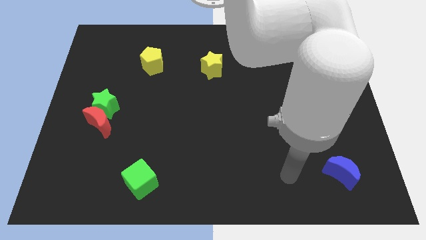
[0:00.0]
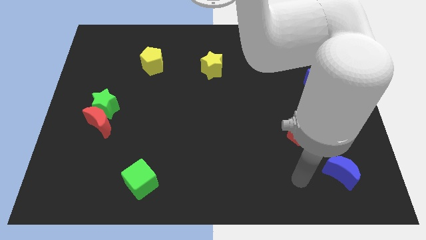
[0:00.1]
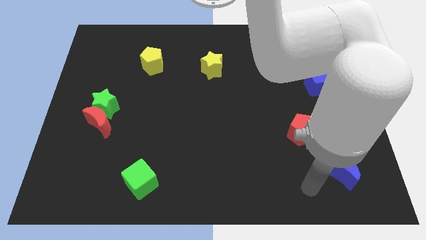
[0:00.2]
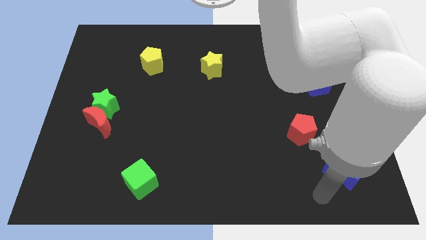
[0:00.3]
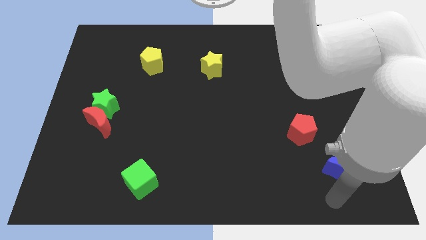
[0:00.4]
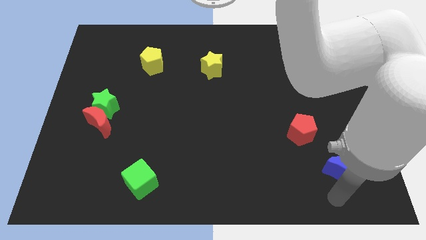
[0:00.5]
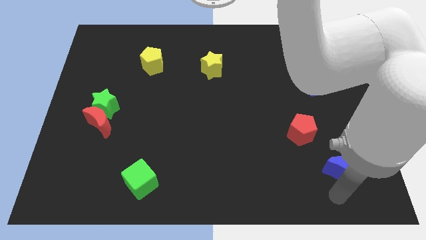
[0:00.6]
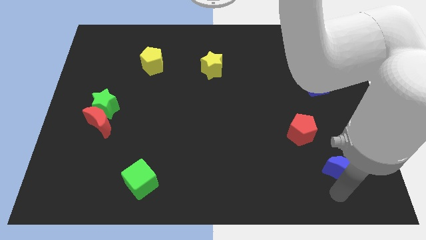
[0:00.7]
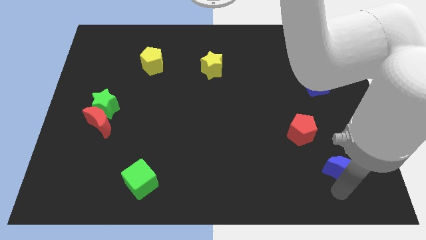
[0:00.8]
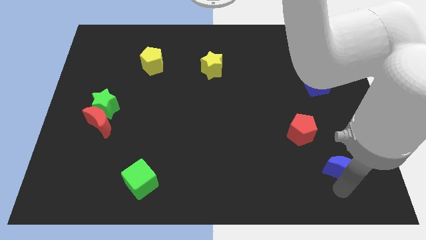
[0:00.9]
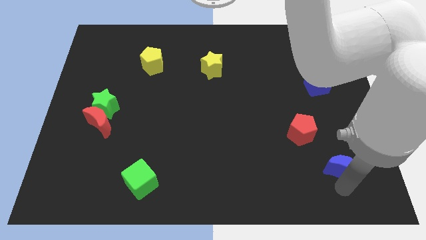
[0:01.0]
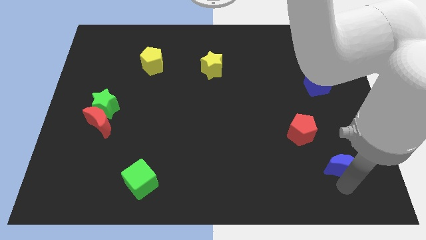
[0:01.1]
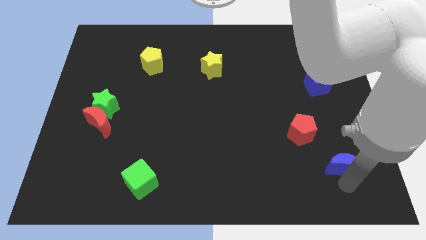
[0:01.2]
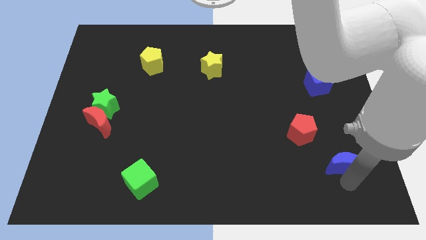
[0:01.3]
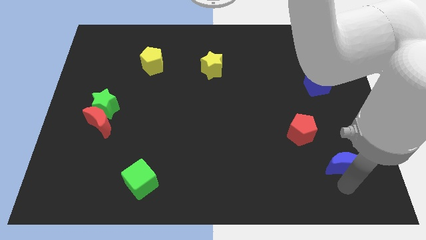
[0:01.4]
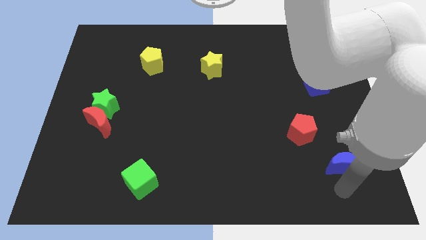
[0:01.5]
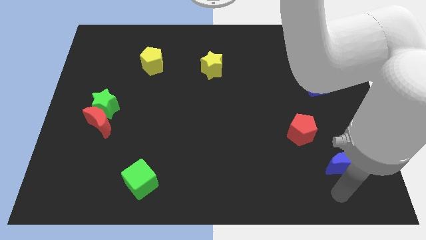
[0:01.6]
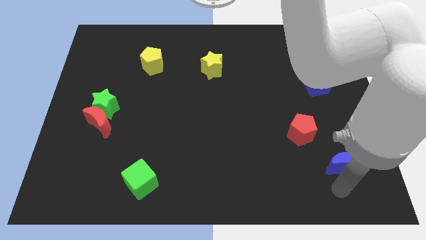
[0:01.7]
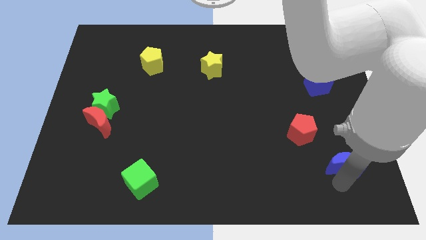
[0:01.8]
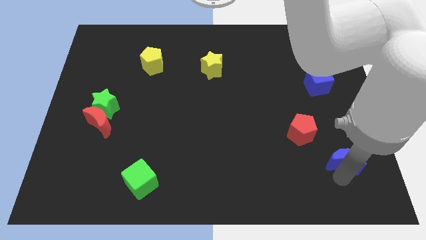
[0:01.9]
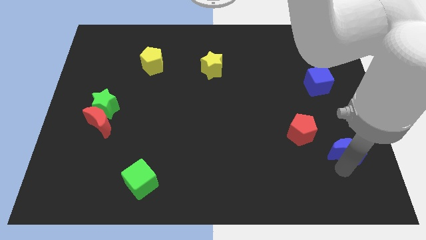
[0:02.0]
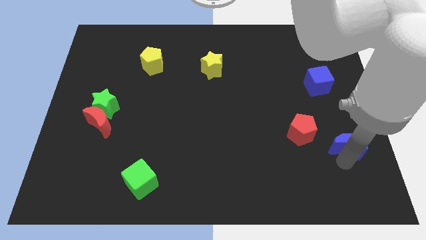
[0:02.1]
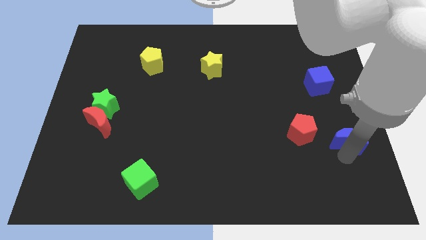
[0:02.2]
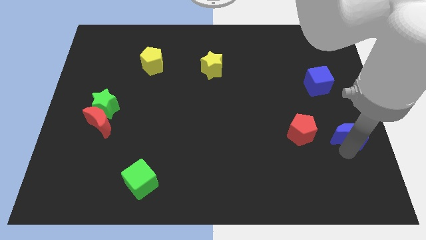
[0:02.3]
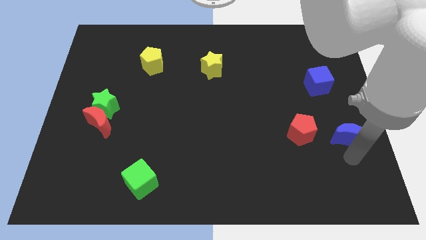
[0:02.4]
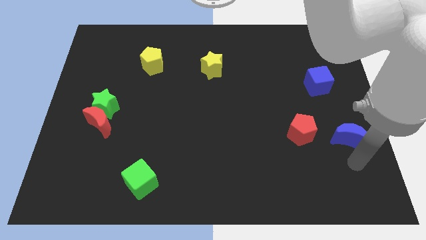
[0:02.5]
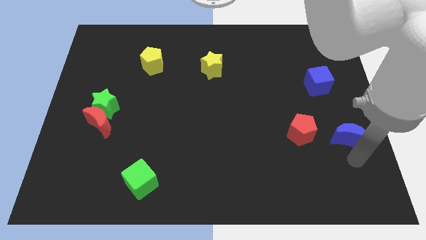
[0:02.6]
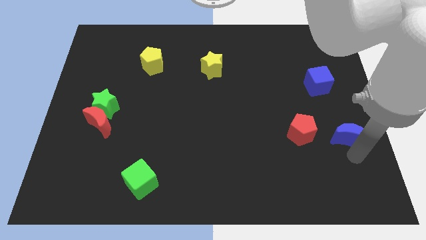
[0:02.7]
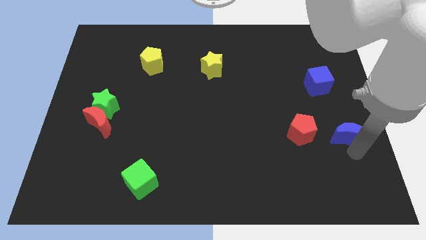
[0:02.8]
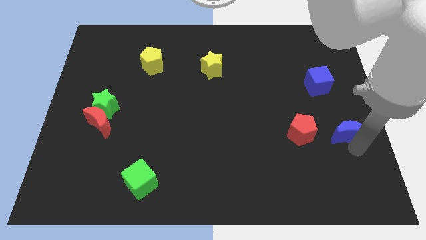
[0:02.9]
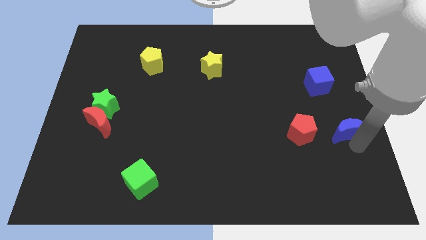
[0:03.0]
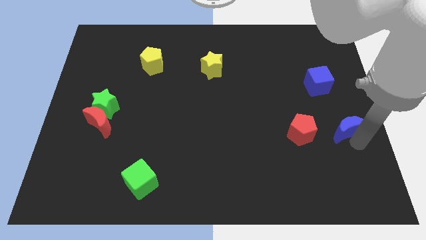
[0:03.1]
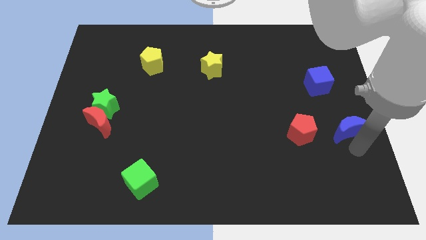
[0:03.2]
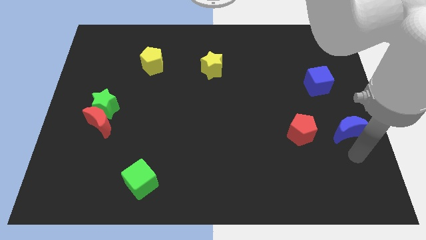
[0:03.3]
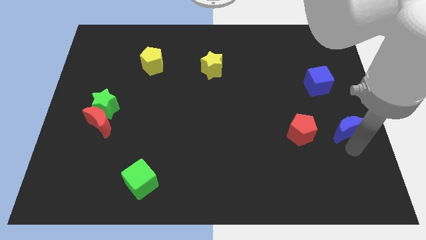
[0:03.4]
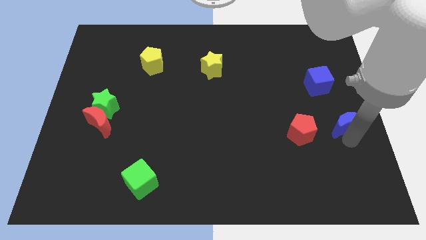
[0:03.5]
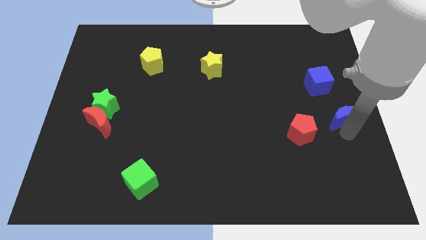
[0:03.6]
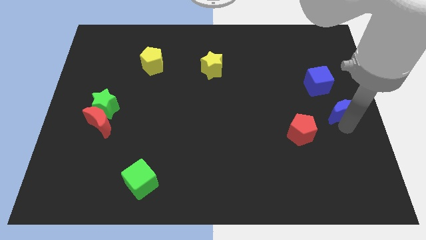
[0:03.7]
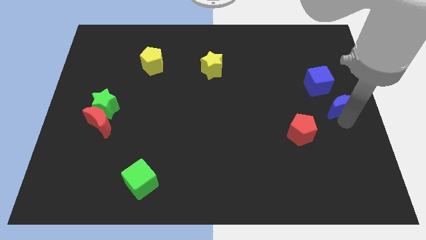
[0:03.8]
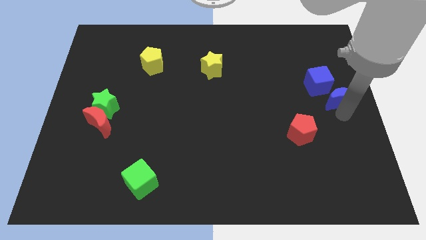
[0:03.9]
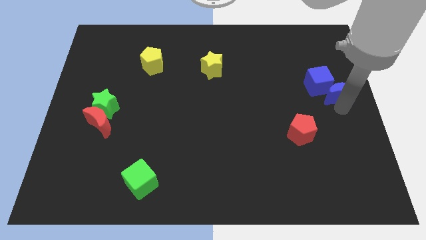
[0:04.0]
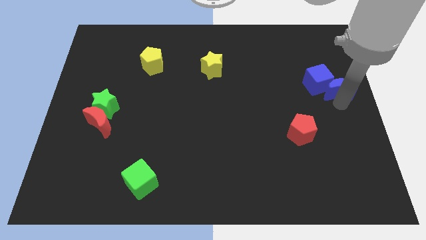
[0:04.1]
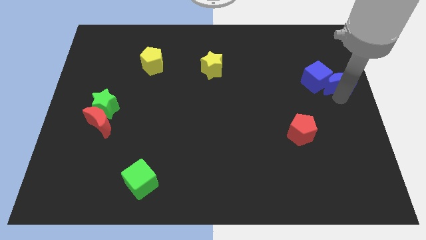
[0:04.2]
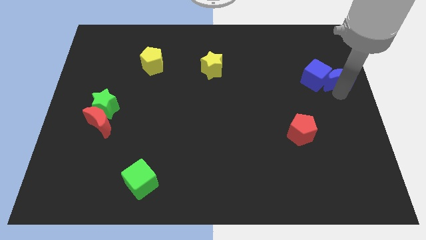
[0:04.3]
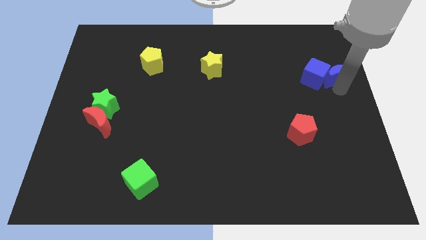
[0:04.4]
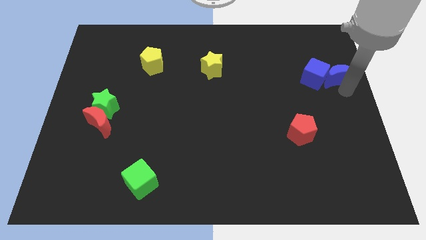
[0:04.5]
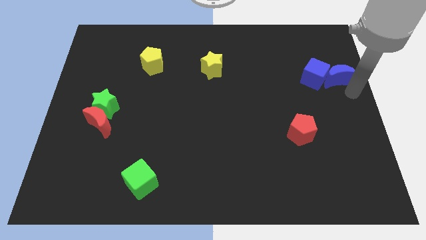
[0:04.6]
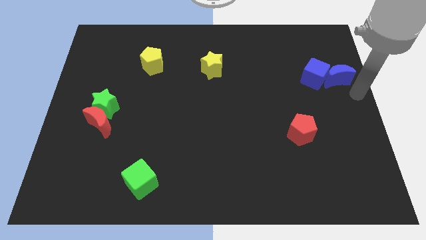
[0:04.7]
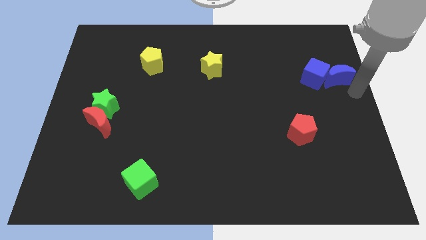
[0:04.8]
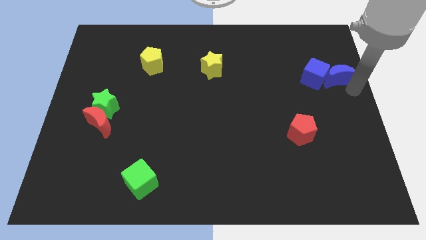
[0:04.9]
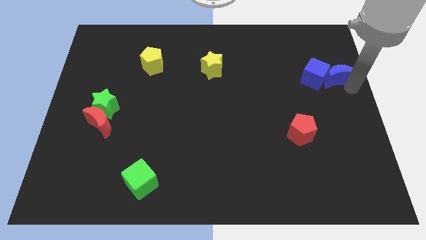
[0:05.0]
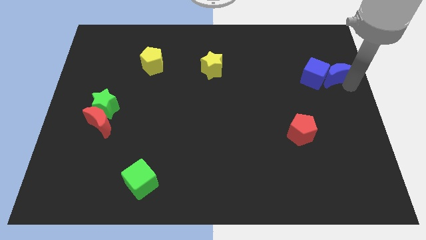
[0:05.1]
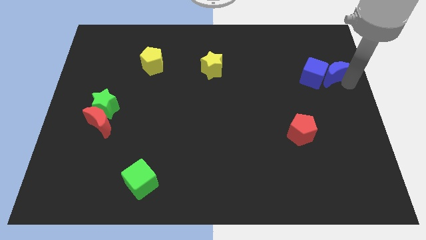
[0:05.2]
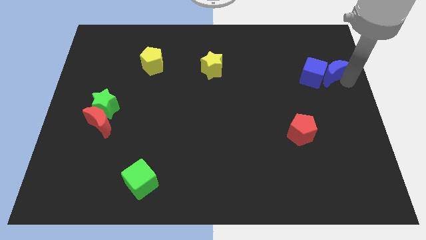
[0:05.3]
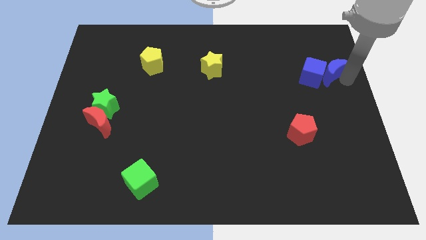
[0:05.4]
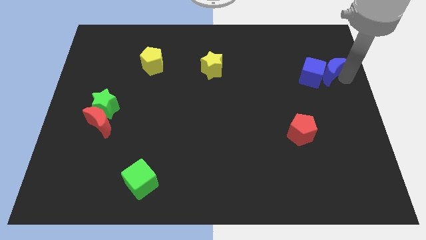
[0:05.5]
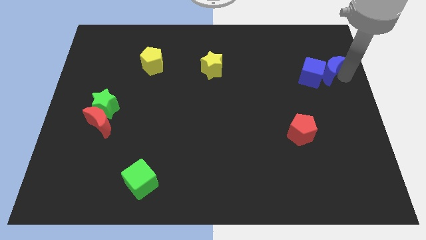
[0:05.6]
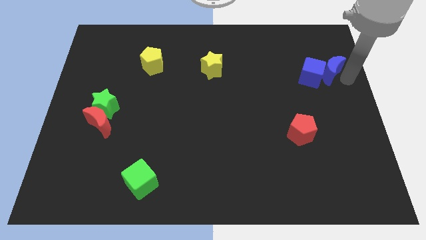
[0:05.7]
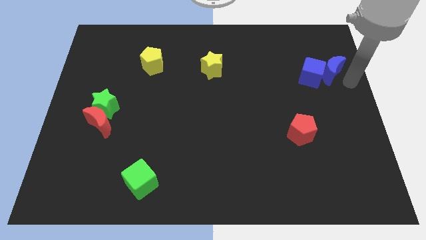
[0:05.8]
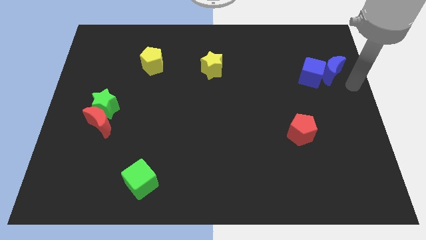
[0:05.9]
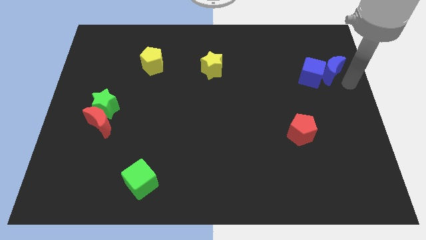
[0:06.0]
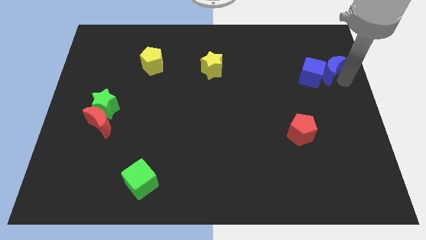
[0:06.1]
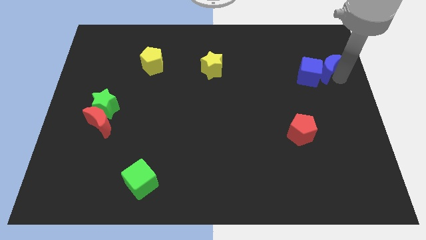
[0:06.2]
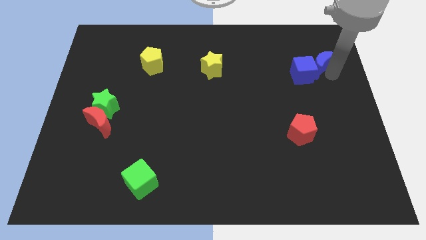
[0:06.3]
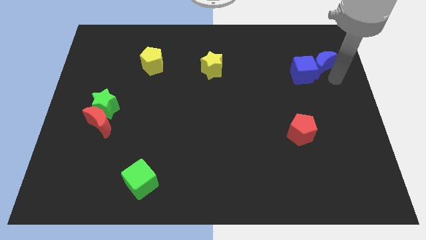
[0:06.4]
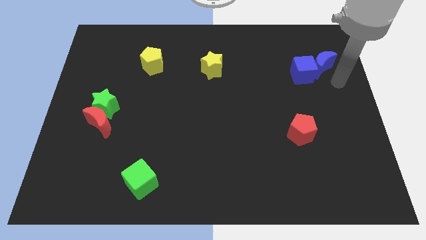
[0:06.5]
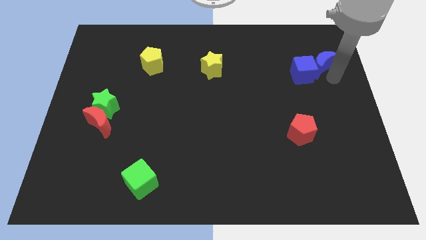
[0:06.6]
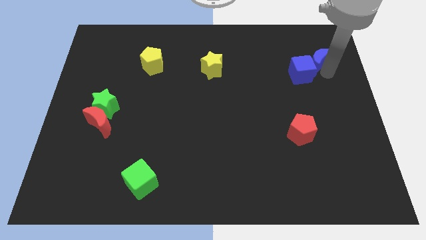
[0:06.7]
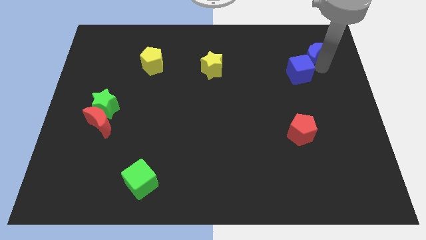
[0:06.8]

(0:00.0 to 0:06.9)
move the blue moon above the blue cube
